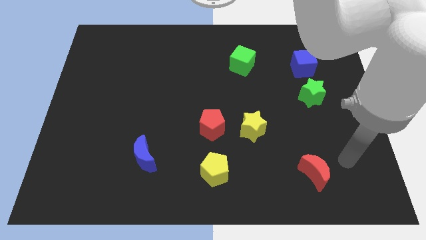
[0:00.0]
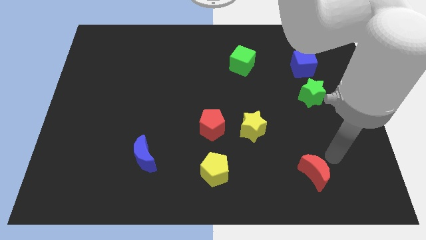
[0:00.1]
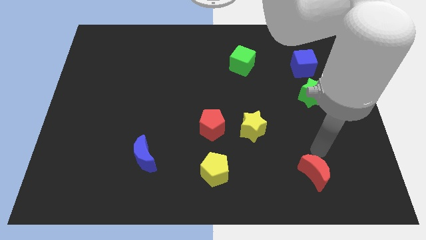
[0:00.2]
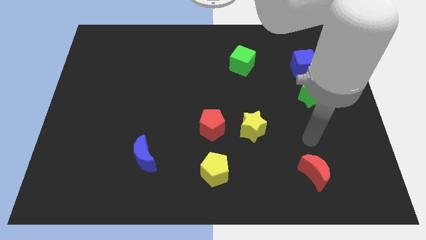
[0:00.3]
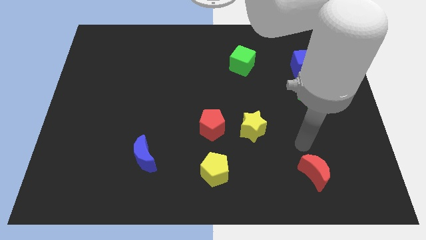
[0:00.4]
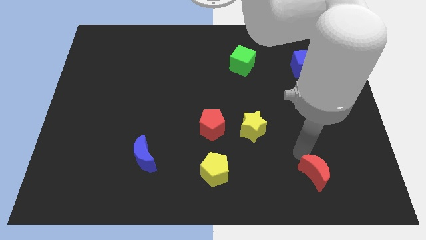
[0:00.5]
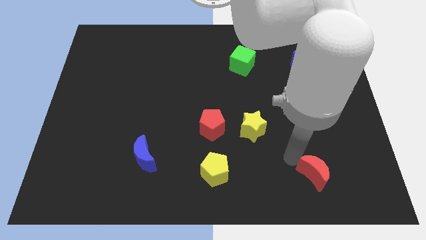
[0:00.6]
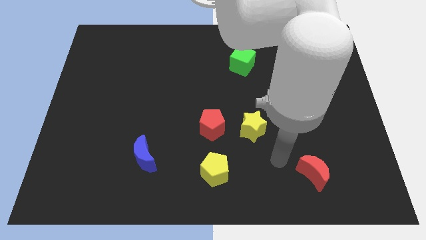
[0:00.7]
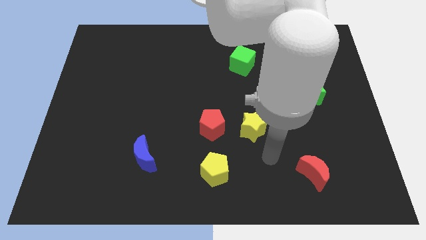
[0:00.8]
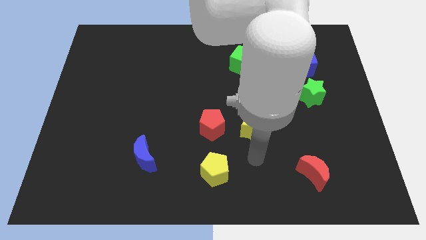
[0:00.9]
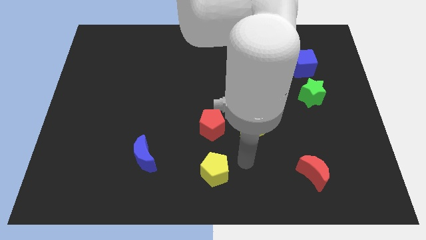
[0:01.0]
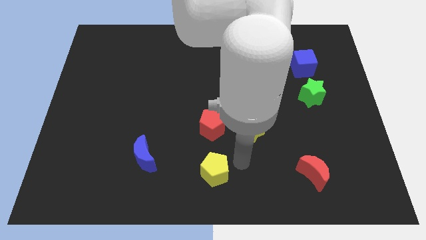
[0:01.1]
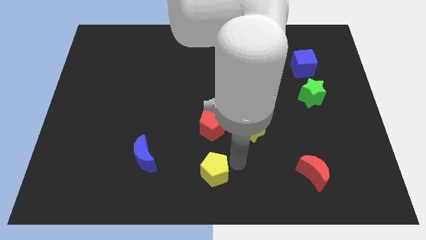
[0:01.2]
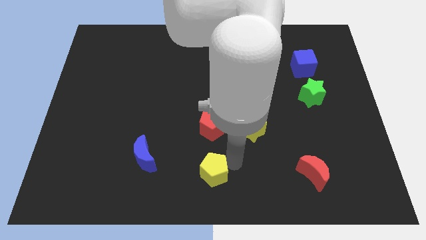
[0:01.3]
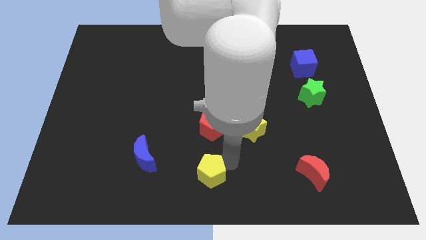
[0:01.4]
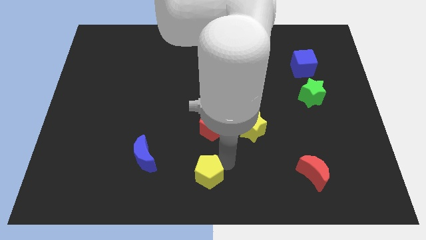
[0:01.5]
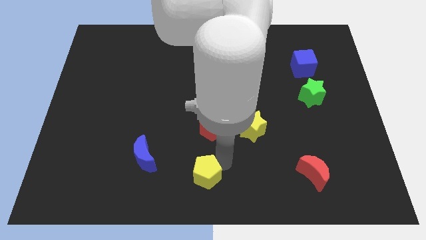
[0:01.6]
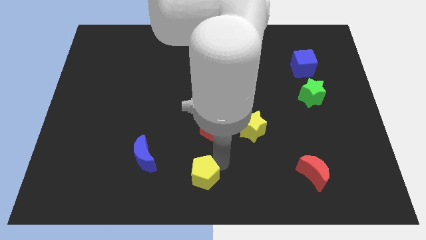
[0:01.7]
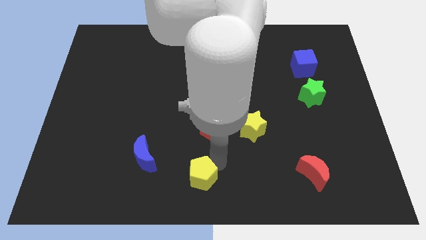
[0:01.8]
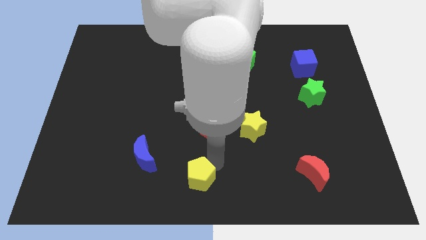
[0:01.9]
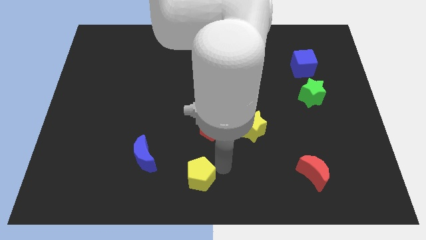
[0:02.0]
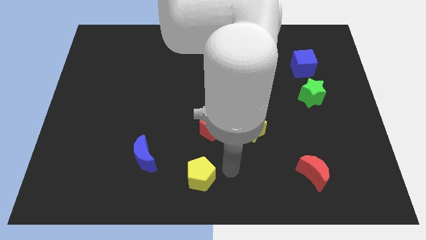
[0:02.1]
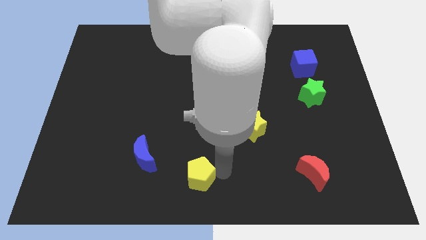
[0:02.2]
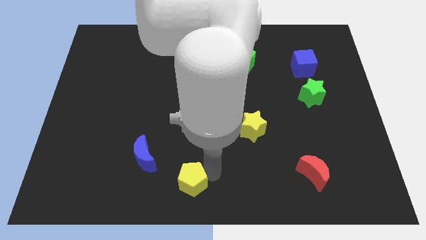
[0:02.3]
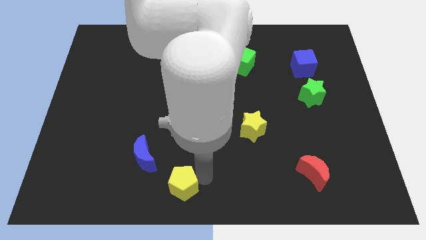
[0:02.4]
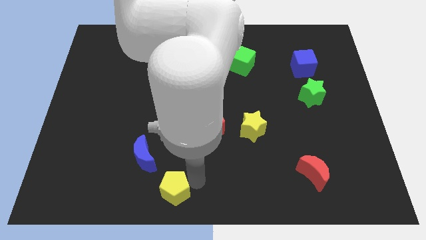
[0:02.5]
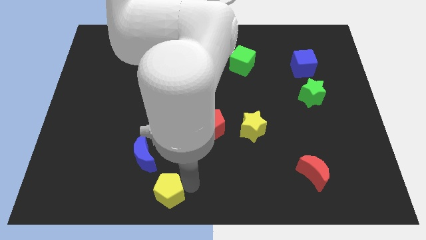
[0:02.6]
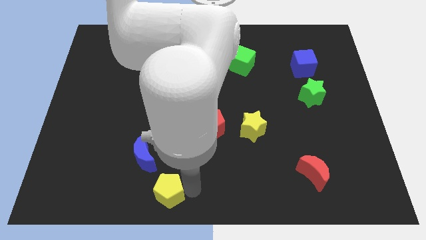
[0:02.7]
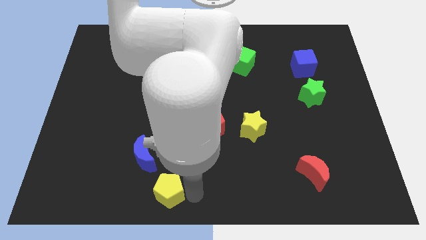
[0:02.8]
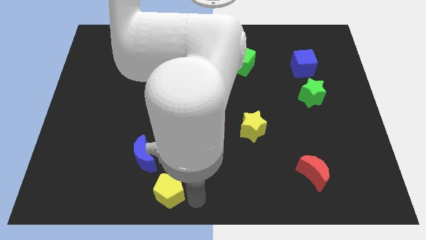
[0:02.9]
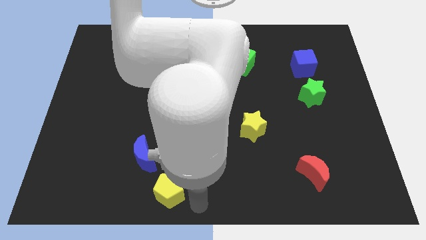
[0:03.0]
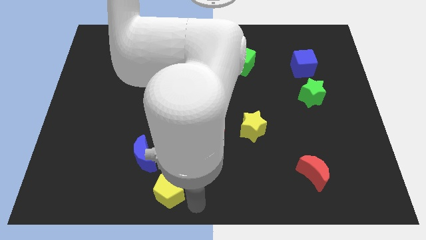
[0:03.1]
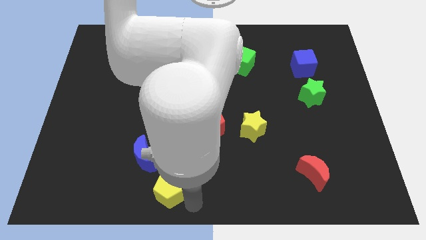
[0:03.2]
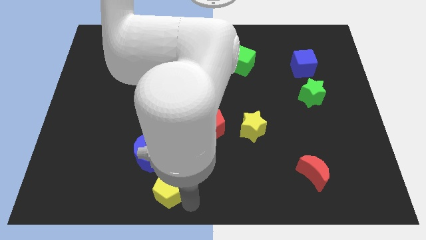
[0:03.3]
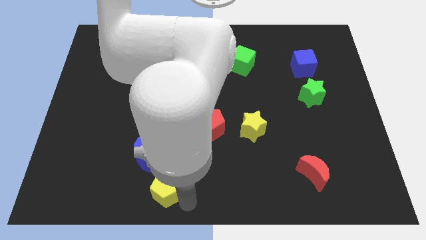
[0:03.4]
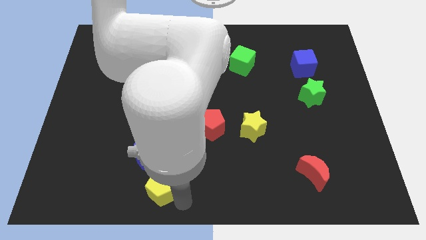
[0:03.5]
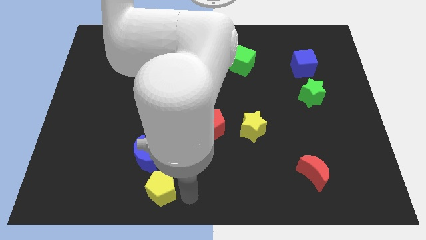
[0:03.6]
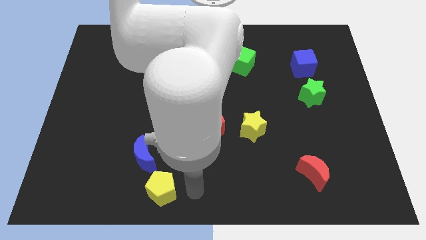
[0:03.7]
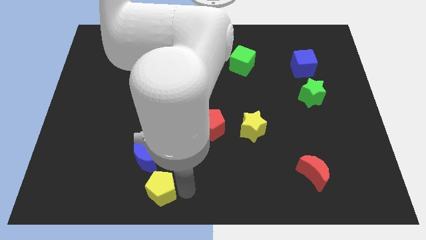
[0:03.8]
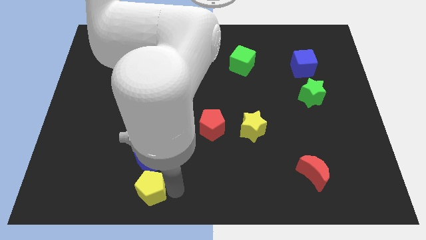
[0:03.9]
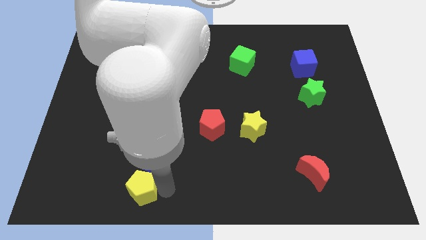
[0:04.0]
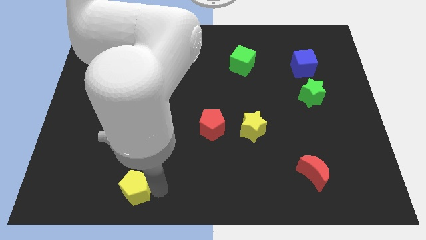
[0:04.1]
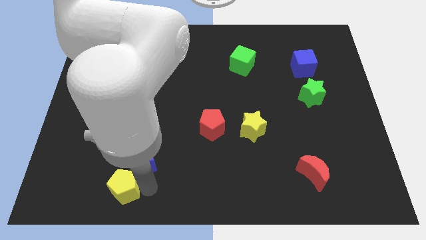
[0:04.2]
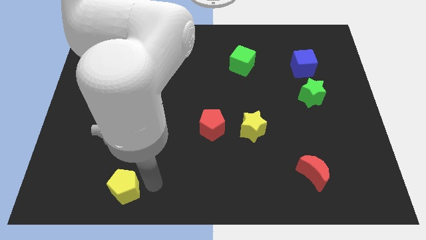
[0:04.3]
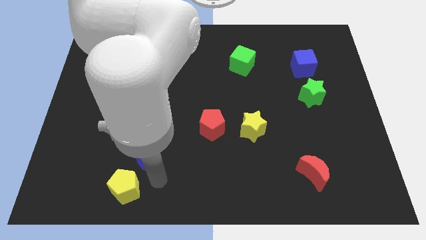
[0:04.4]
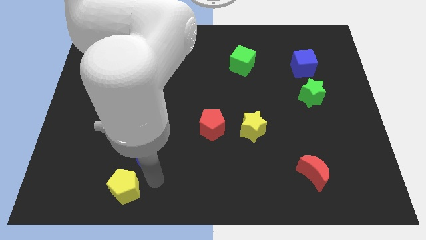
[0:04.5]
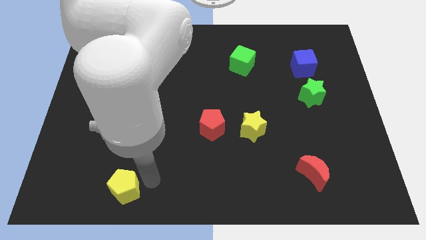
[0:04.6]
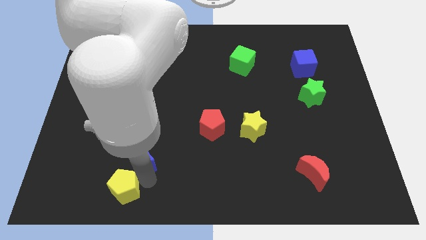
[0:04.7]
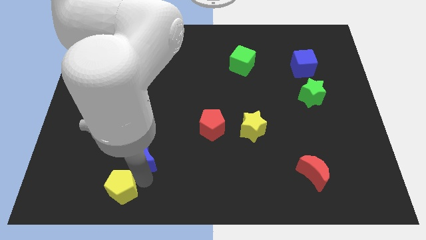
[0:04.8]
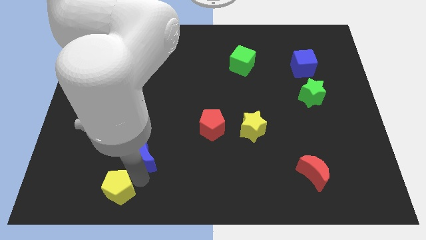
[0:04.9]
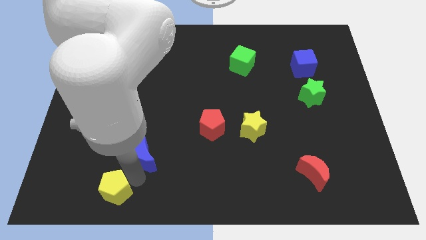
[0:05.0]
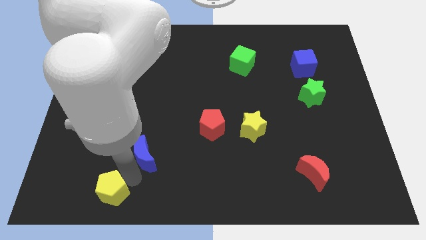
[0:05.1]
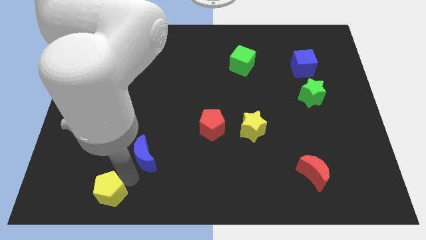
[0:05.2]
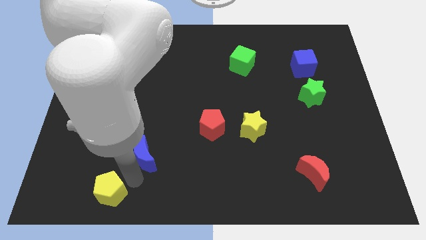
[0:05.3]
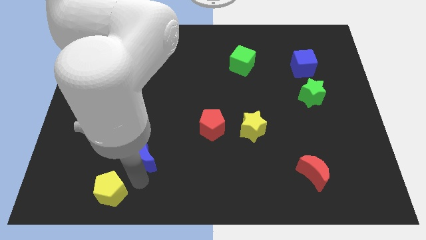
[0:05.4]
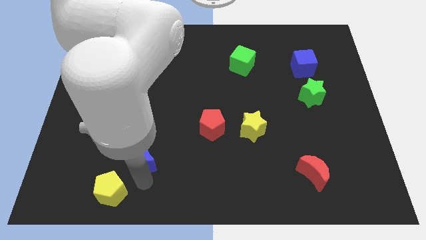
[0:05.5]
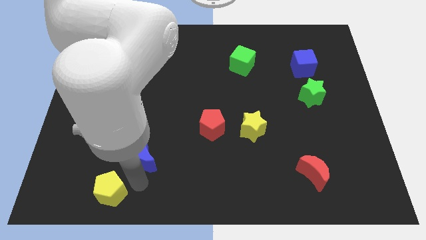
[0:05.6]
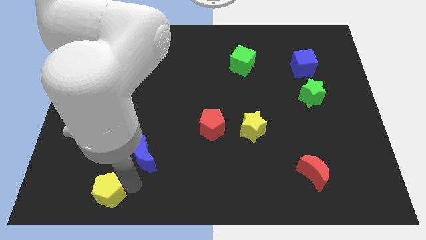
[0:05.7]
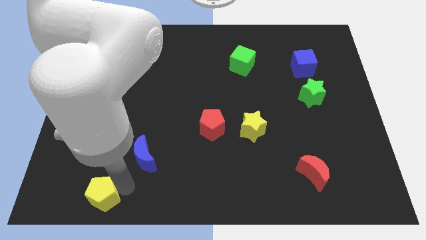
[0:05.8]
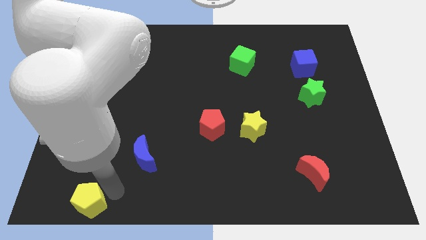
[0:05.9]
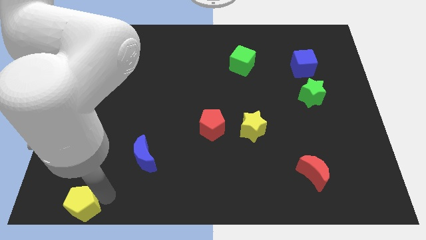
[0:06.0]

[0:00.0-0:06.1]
move the yellow pentagon to the bottom left of the board

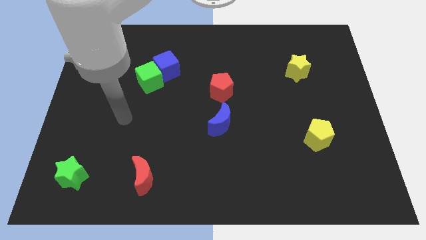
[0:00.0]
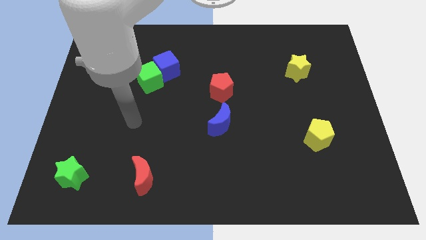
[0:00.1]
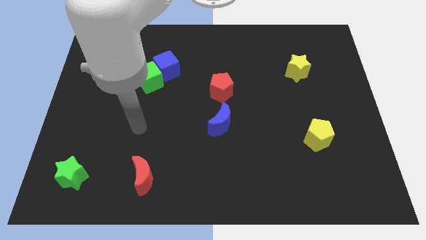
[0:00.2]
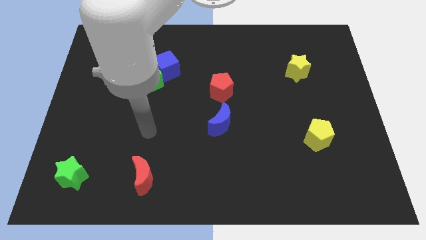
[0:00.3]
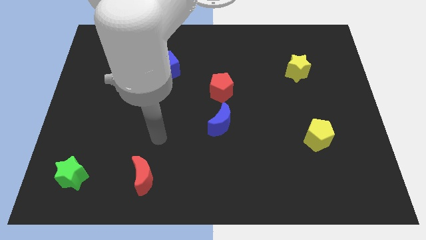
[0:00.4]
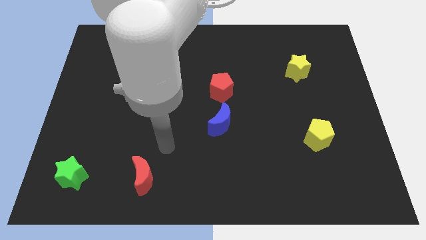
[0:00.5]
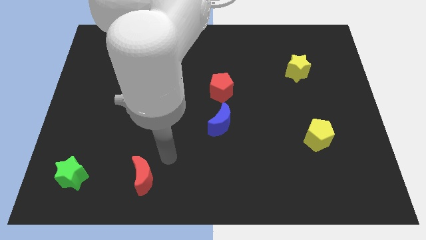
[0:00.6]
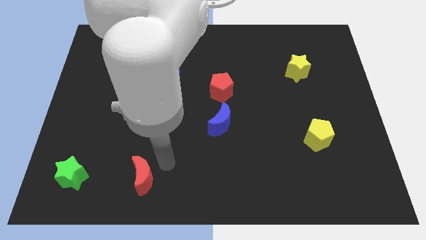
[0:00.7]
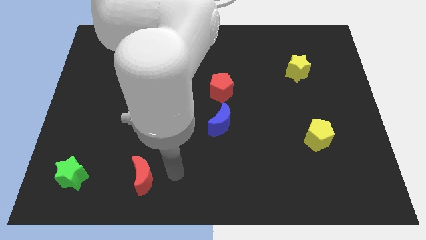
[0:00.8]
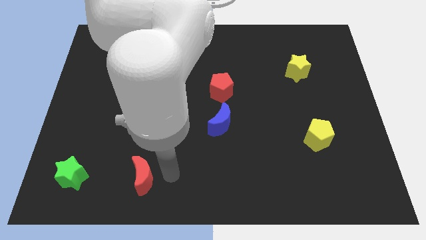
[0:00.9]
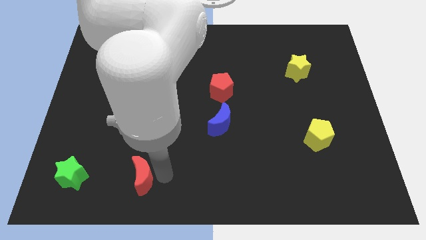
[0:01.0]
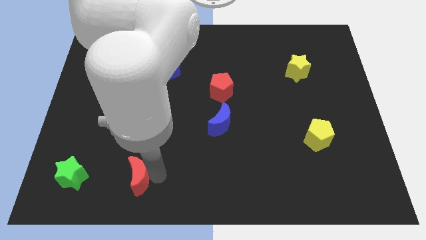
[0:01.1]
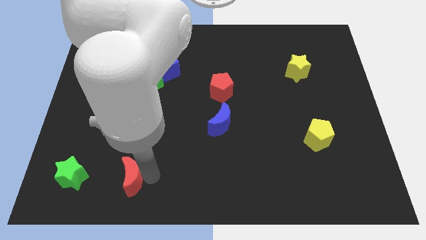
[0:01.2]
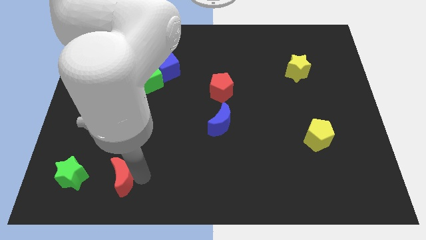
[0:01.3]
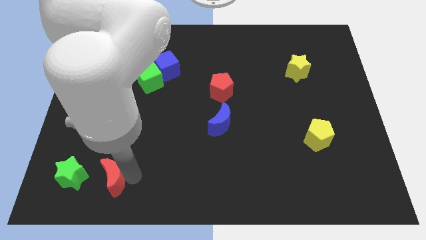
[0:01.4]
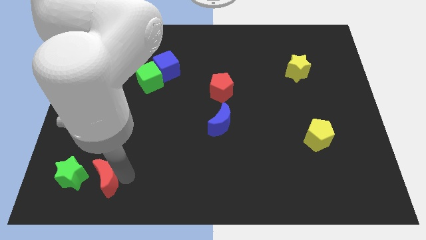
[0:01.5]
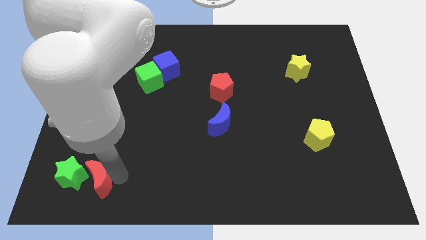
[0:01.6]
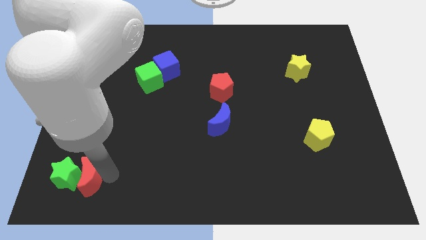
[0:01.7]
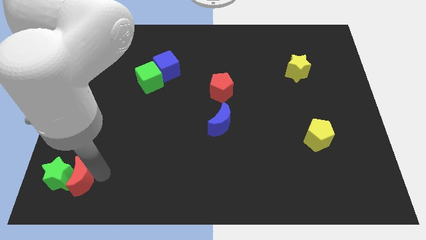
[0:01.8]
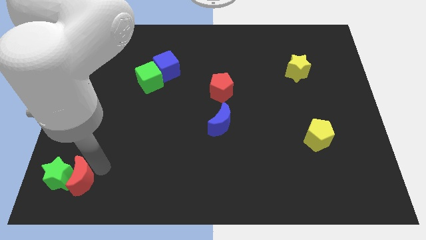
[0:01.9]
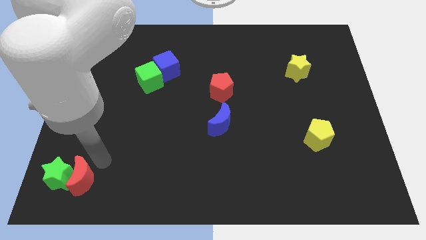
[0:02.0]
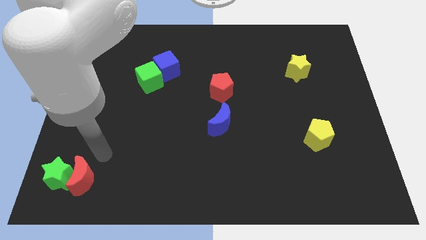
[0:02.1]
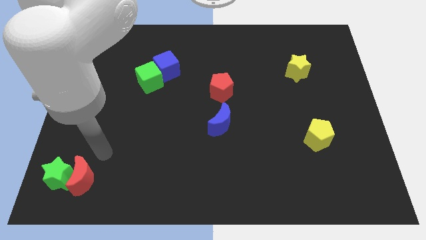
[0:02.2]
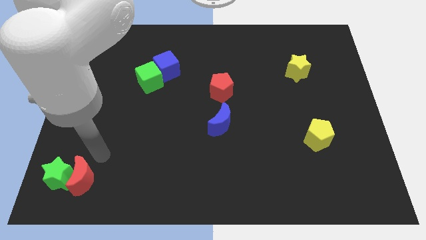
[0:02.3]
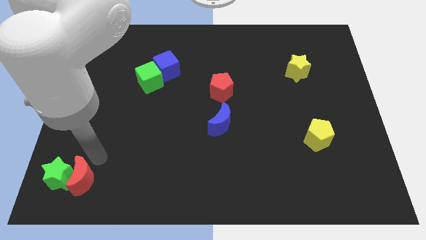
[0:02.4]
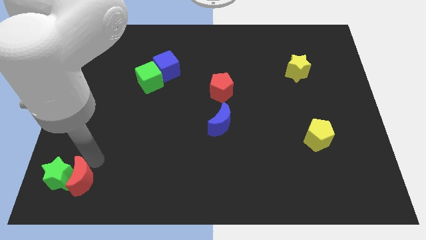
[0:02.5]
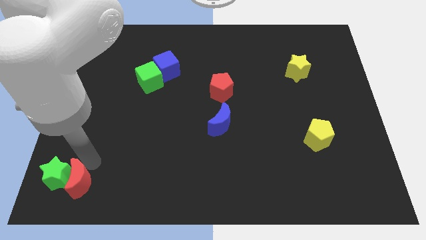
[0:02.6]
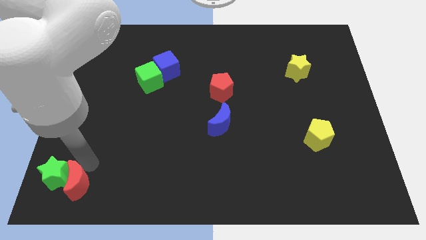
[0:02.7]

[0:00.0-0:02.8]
push the red moon to the bottom left corner
